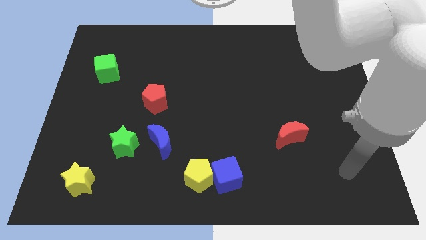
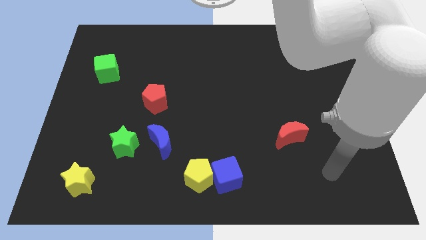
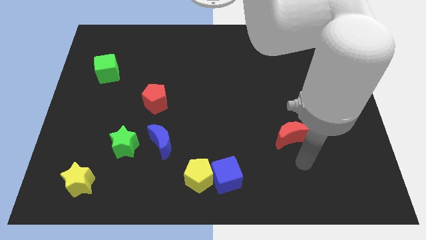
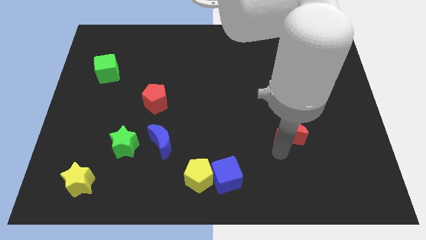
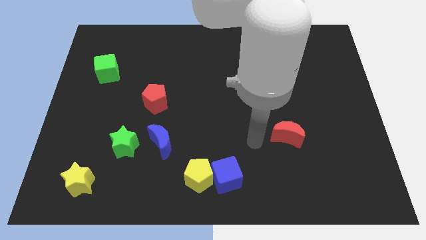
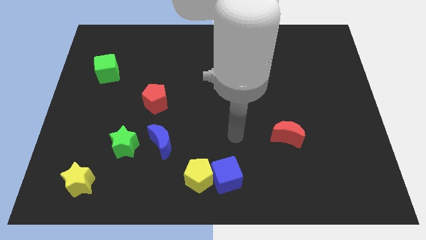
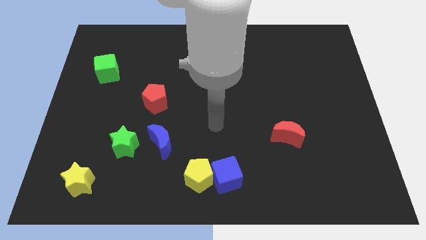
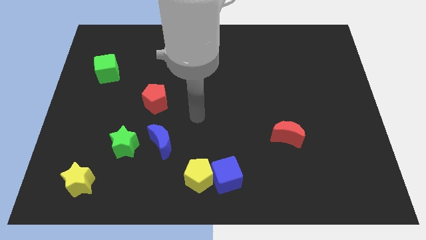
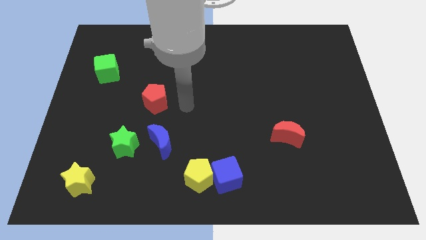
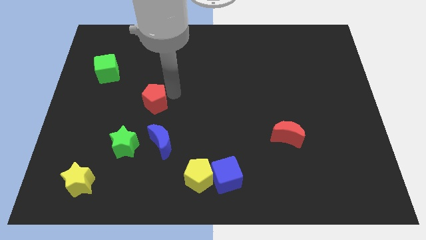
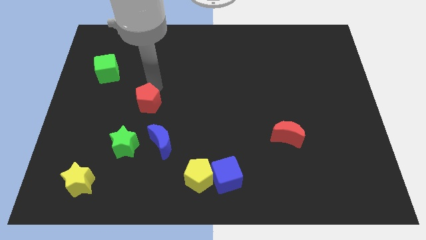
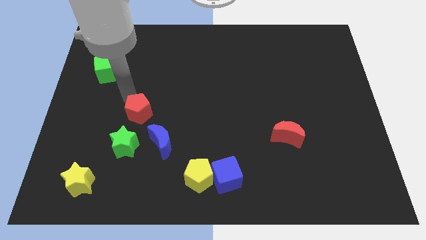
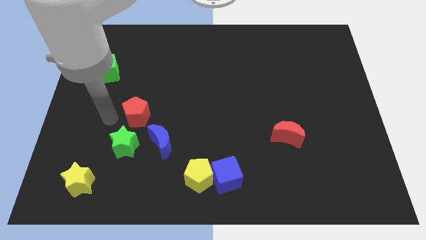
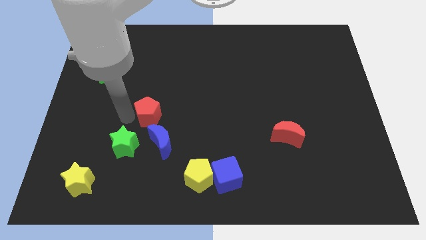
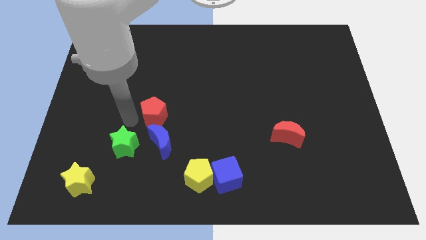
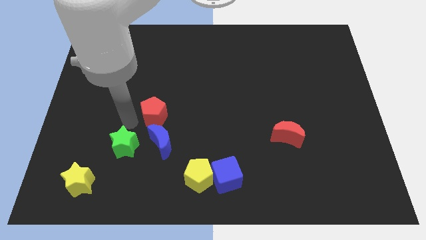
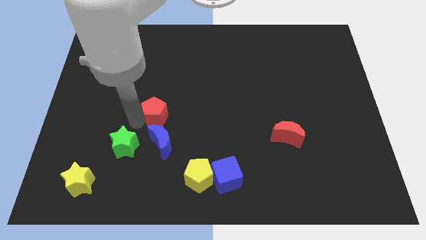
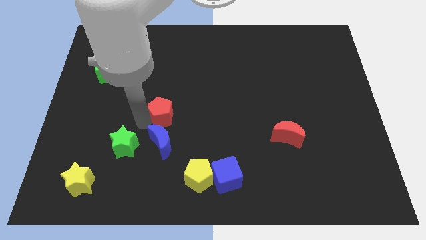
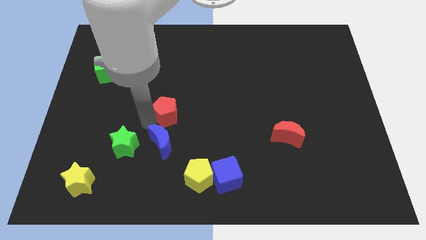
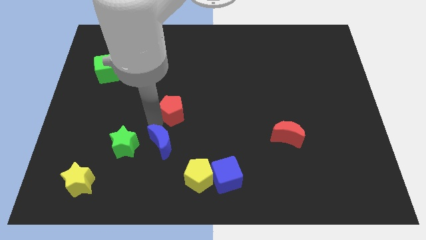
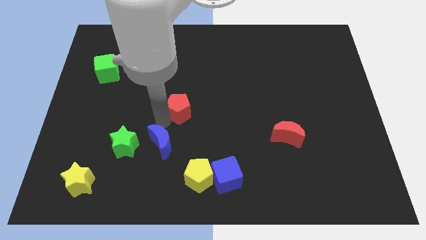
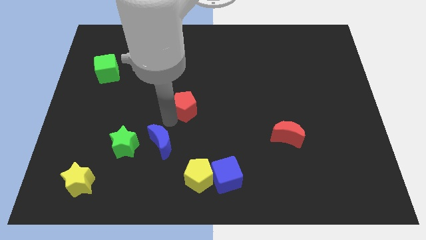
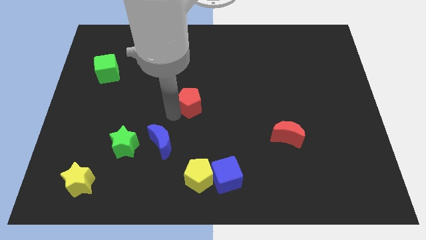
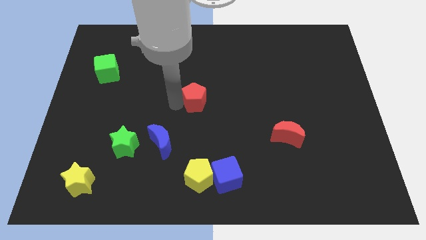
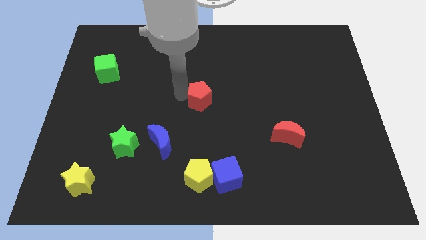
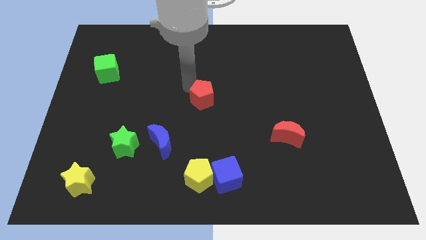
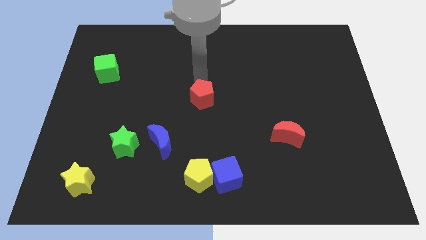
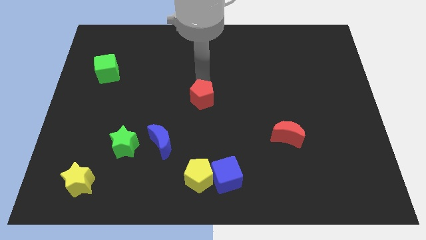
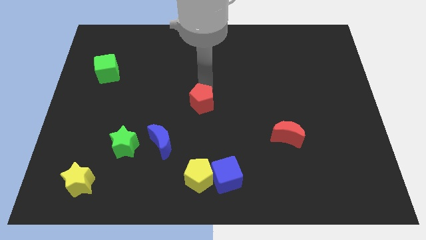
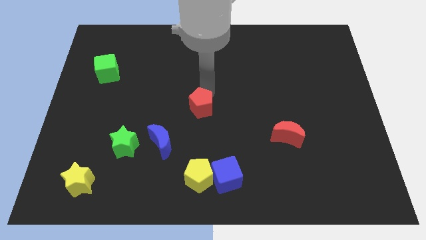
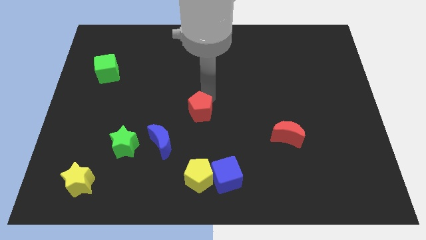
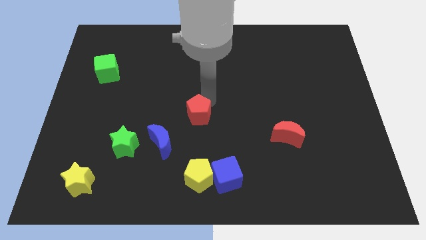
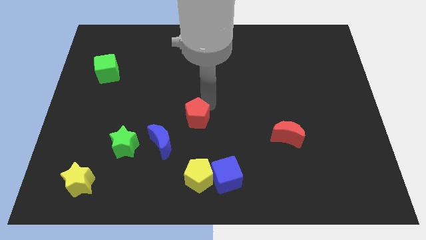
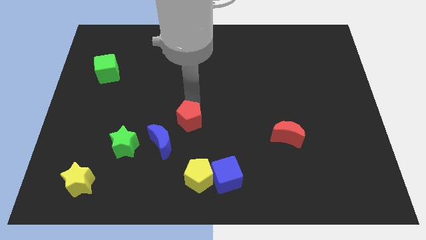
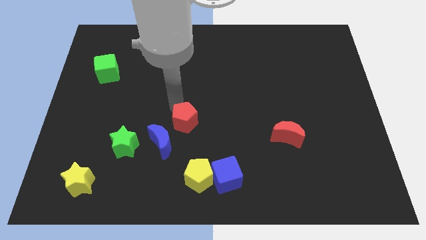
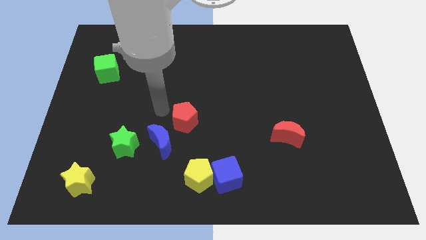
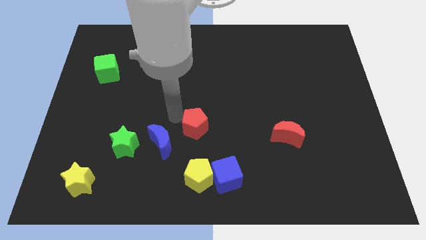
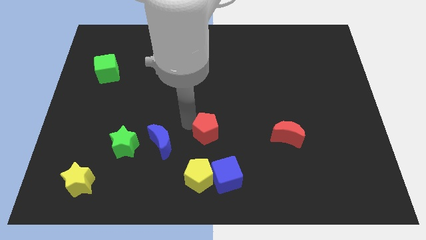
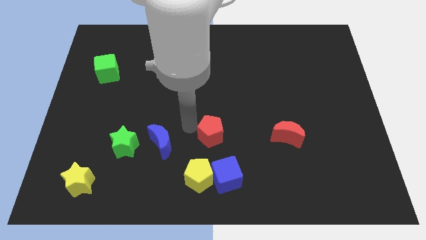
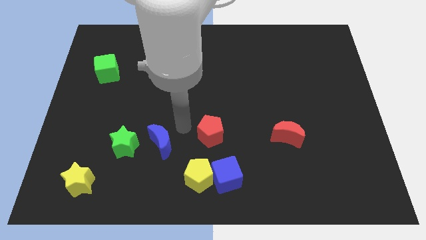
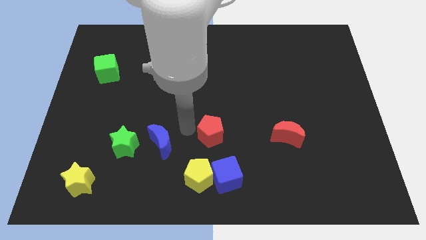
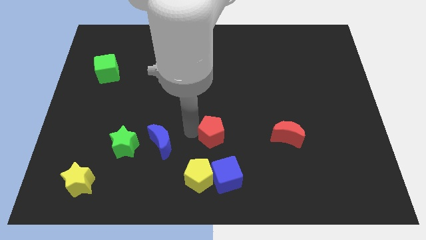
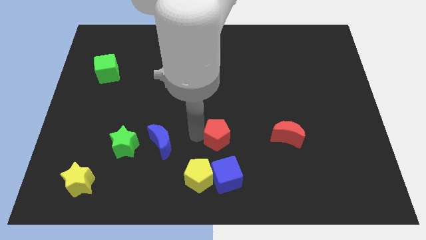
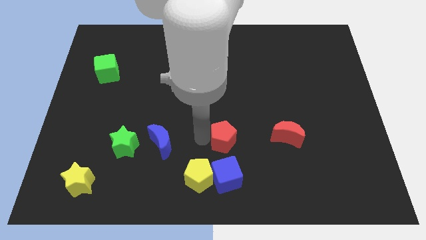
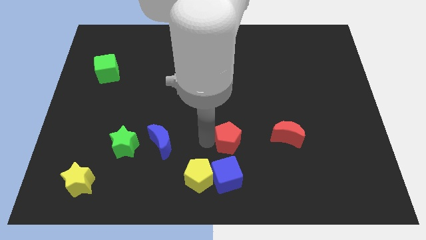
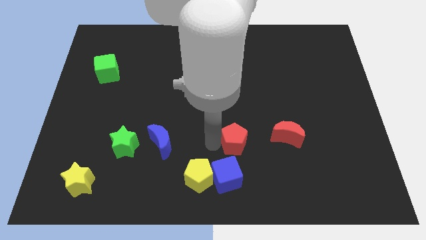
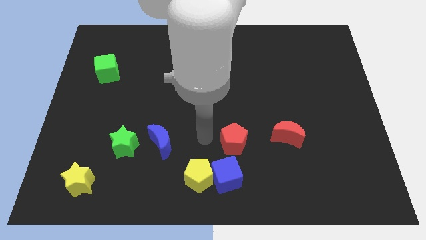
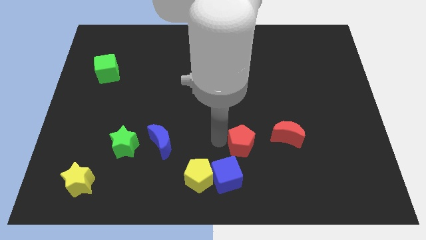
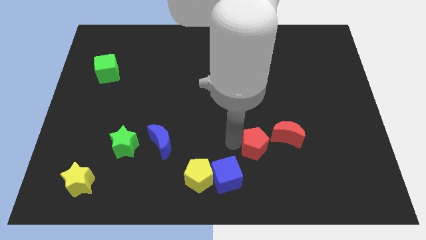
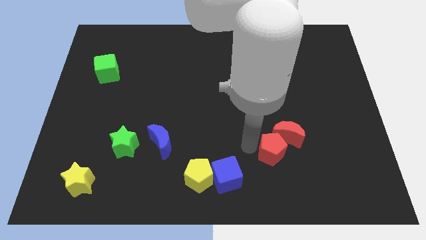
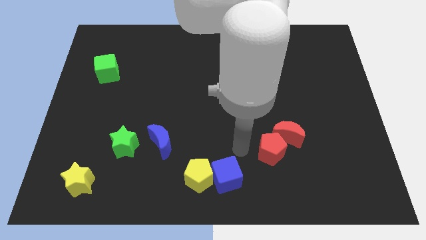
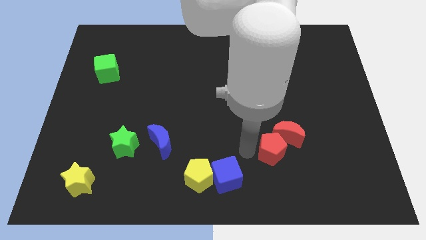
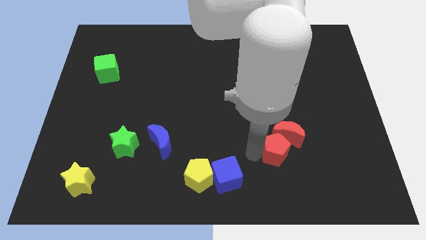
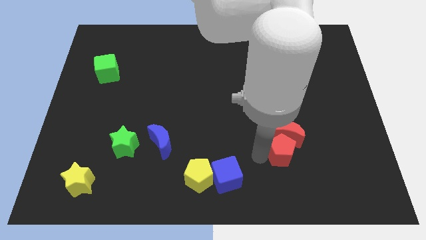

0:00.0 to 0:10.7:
push the red pentagon to the bottom right of the red moon
